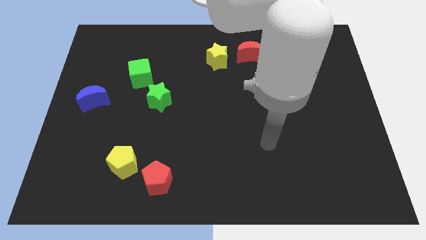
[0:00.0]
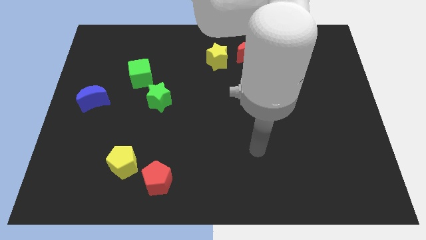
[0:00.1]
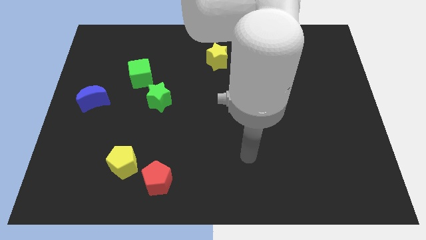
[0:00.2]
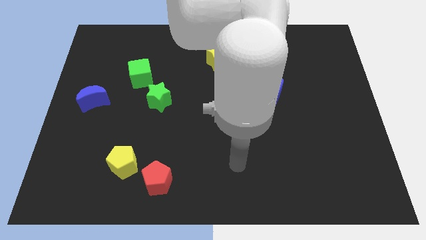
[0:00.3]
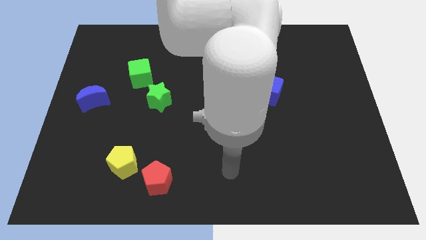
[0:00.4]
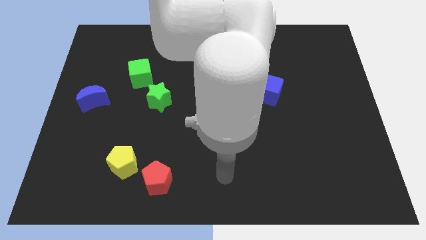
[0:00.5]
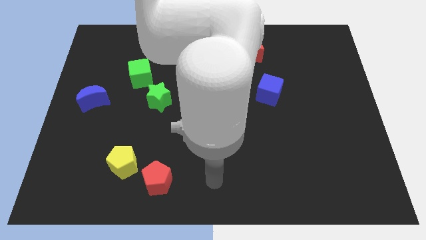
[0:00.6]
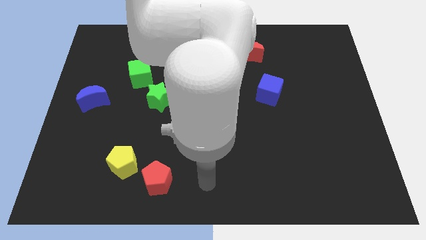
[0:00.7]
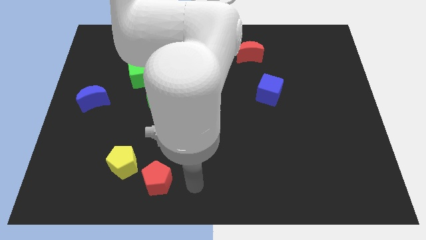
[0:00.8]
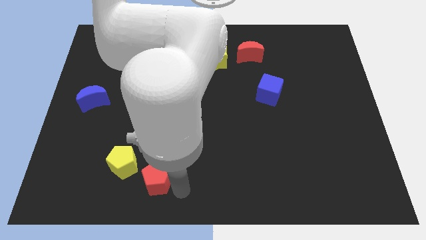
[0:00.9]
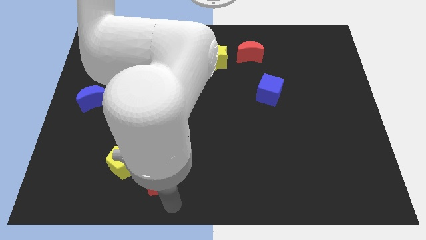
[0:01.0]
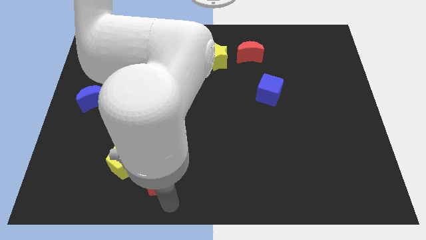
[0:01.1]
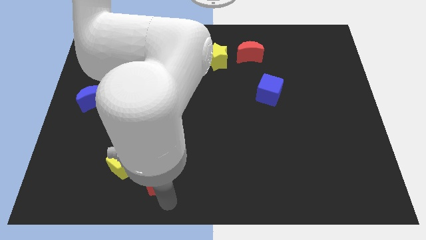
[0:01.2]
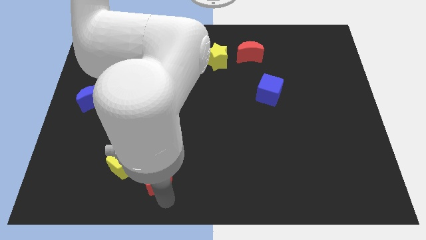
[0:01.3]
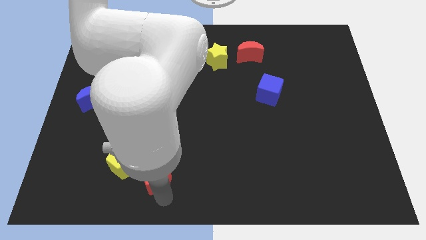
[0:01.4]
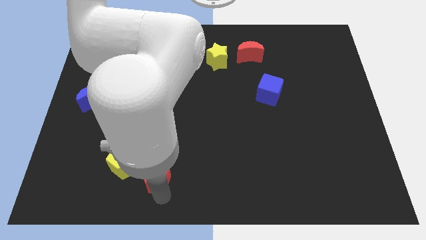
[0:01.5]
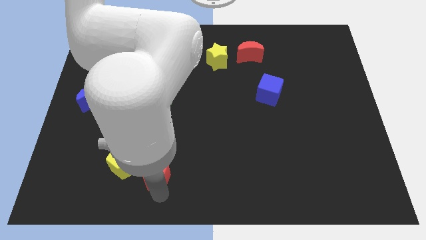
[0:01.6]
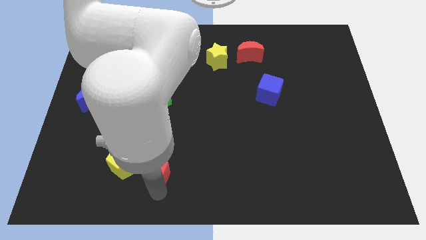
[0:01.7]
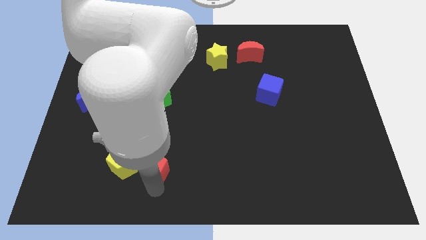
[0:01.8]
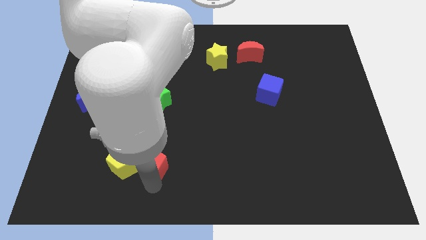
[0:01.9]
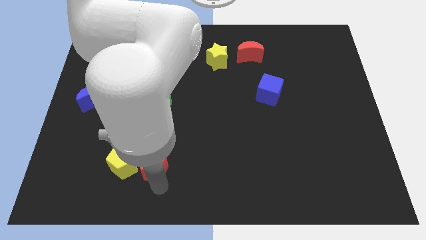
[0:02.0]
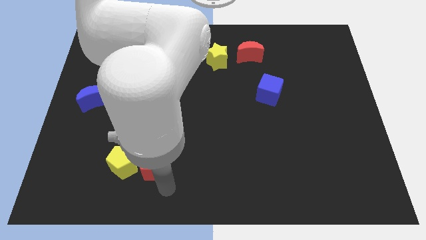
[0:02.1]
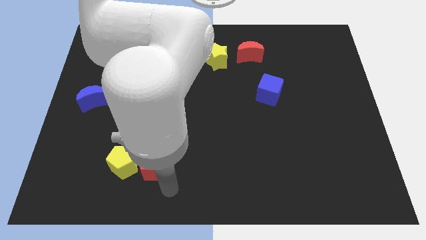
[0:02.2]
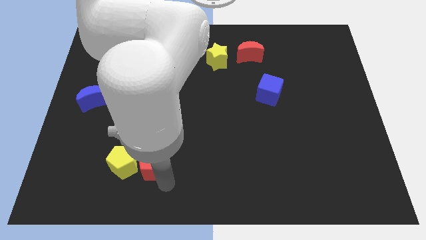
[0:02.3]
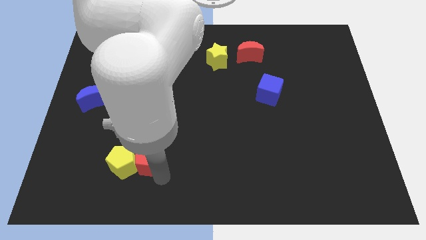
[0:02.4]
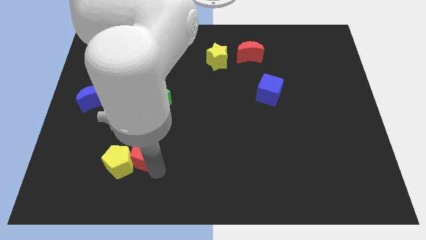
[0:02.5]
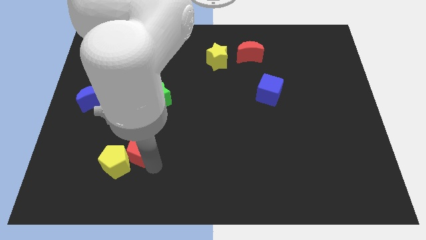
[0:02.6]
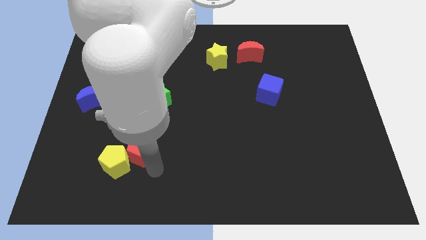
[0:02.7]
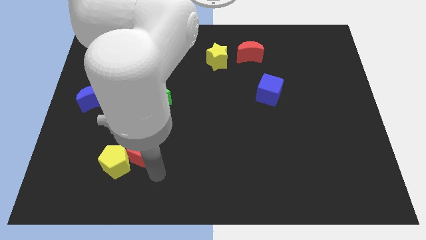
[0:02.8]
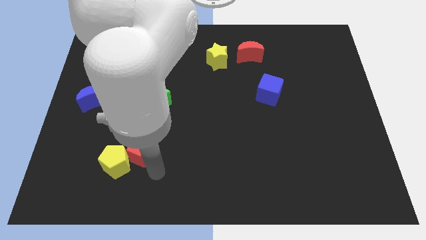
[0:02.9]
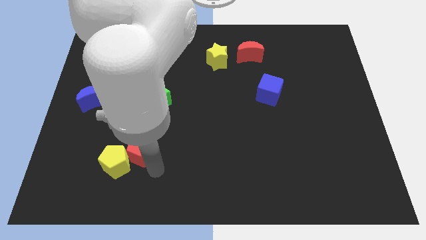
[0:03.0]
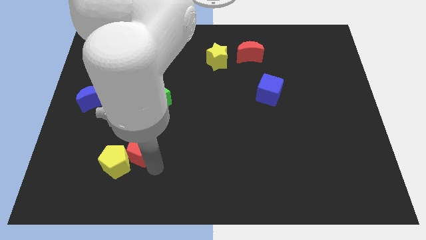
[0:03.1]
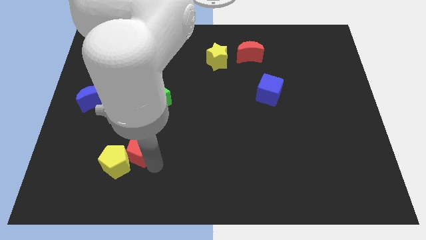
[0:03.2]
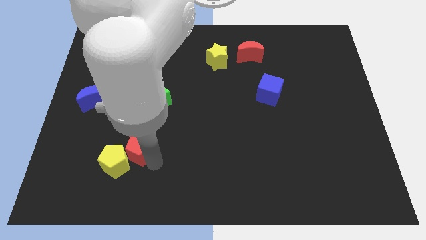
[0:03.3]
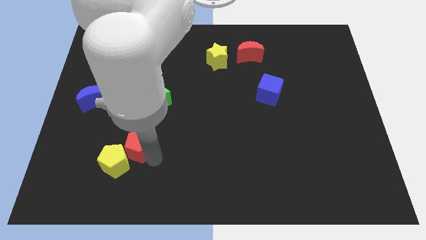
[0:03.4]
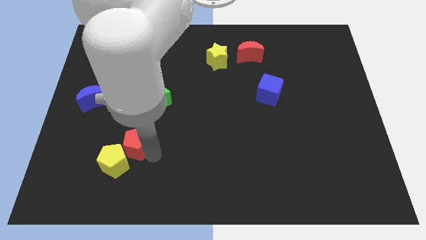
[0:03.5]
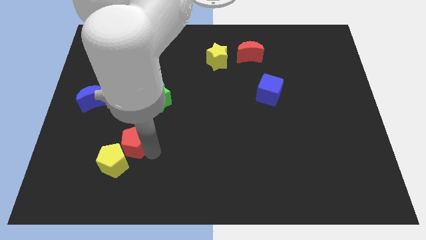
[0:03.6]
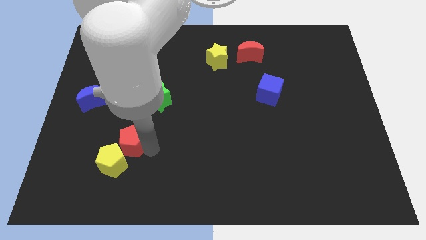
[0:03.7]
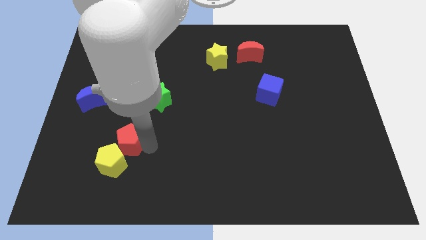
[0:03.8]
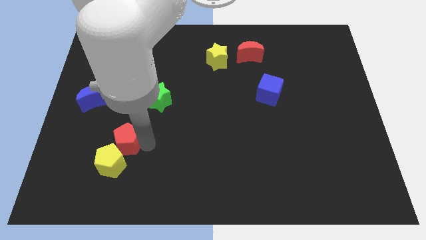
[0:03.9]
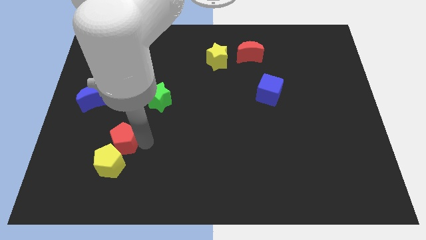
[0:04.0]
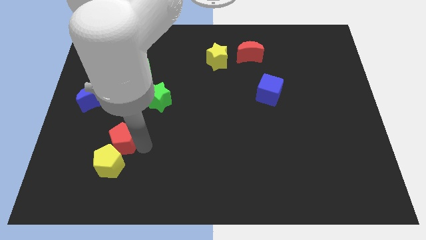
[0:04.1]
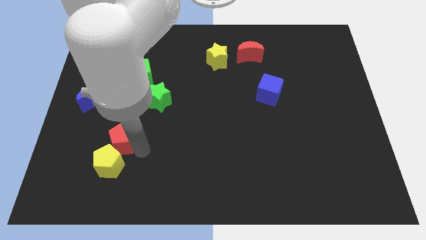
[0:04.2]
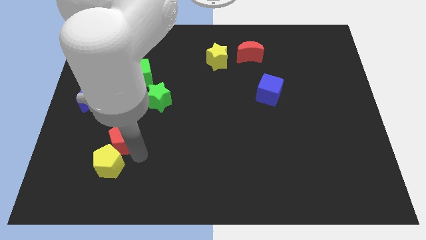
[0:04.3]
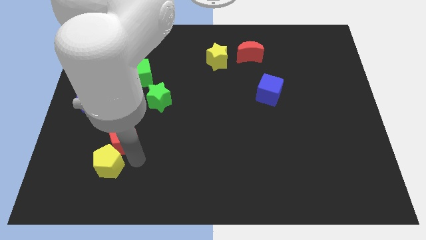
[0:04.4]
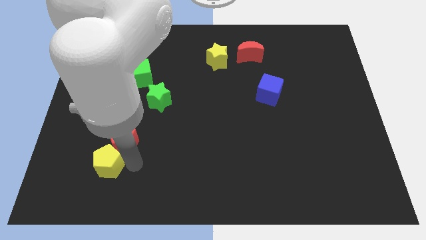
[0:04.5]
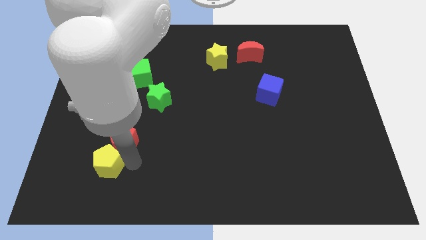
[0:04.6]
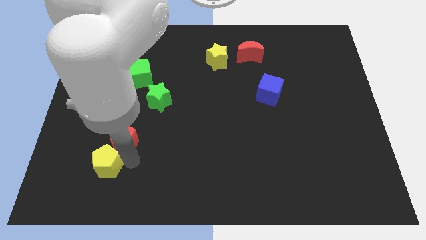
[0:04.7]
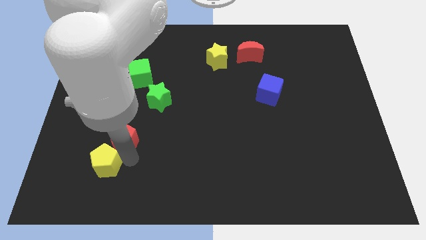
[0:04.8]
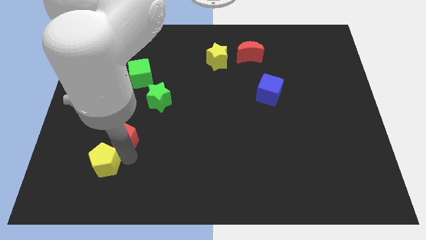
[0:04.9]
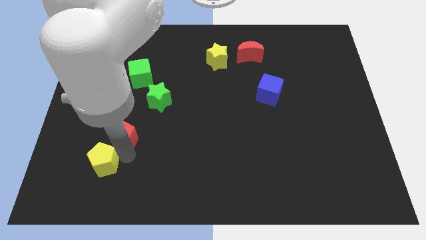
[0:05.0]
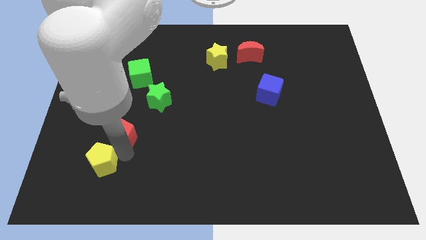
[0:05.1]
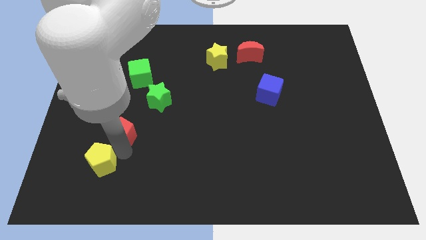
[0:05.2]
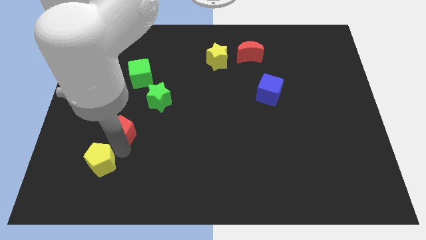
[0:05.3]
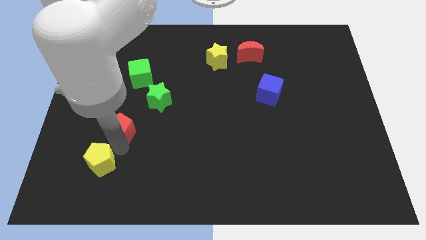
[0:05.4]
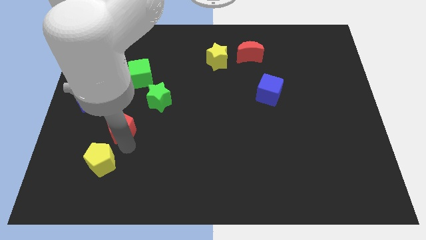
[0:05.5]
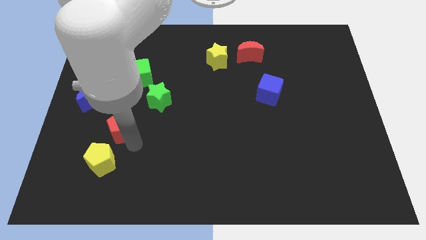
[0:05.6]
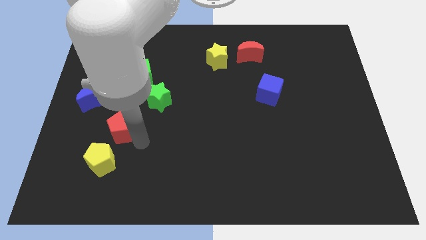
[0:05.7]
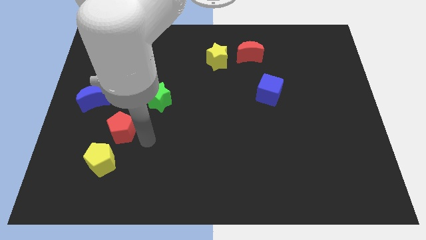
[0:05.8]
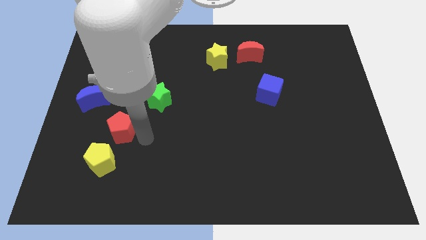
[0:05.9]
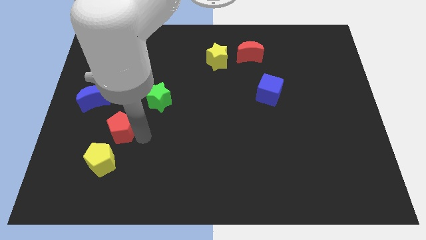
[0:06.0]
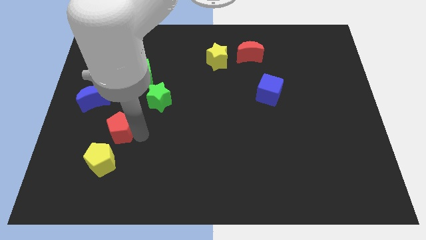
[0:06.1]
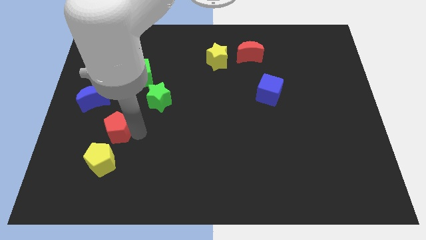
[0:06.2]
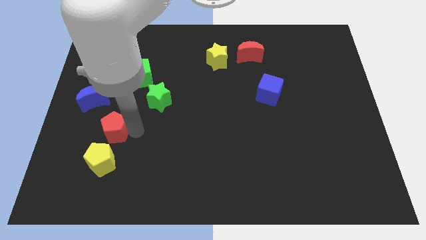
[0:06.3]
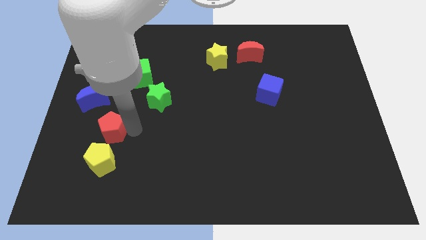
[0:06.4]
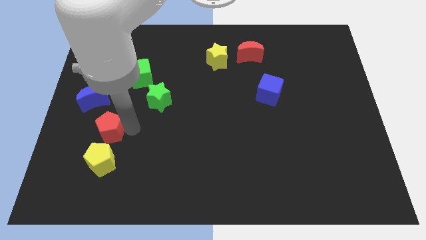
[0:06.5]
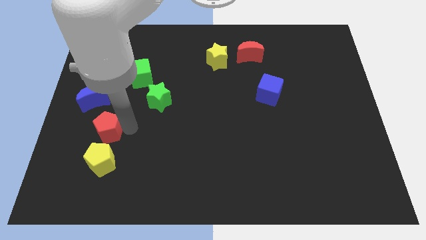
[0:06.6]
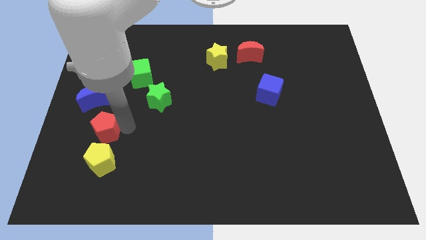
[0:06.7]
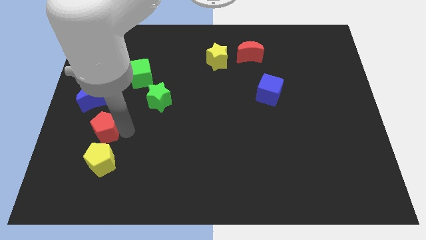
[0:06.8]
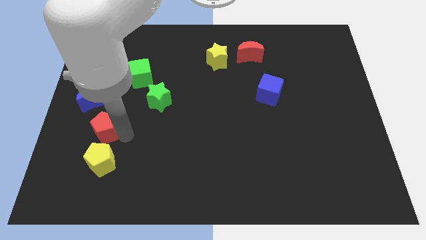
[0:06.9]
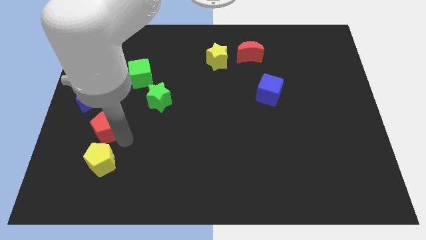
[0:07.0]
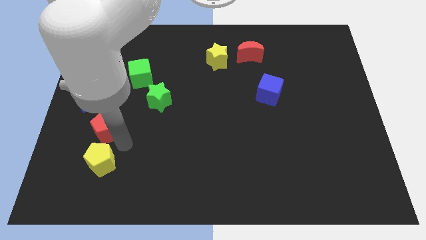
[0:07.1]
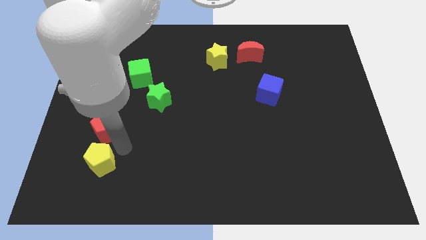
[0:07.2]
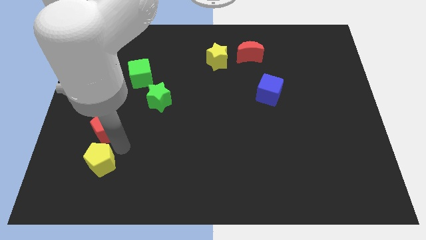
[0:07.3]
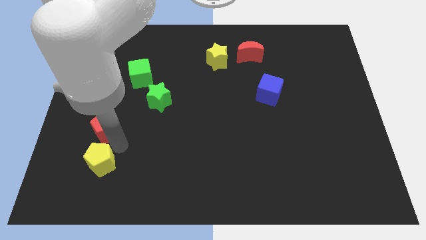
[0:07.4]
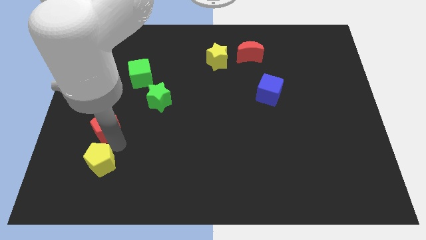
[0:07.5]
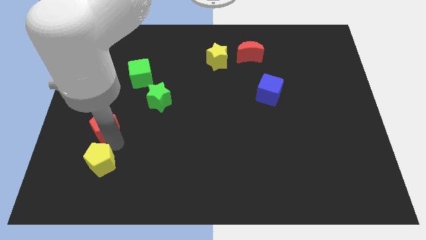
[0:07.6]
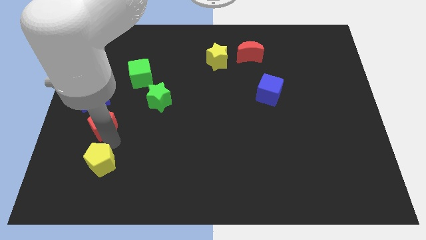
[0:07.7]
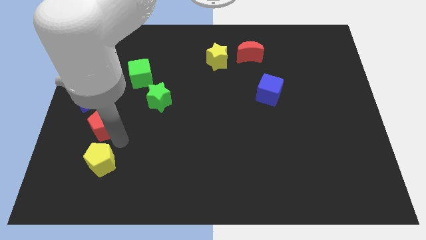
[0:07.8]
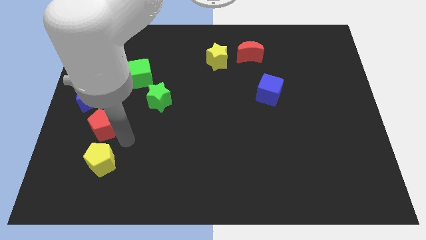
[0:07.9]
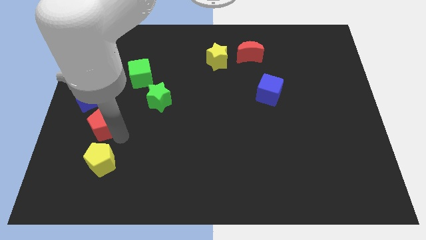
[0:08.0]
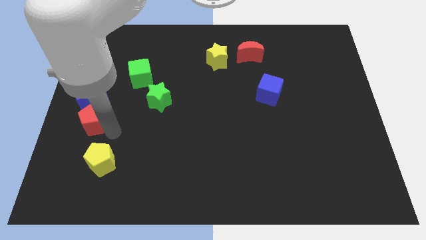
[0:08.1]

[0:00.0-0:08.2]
move the red pentagon to the left side
